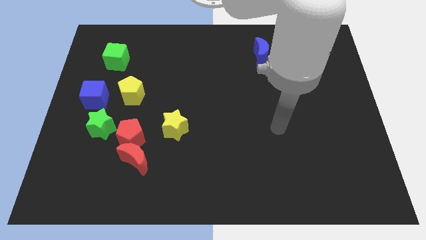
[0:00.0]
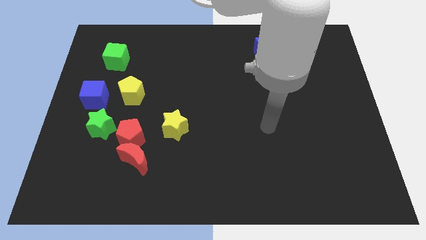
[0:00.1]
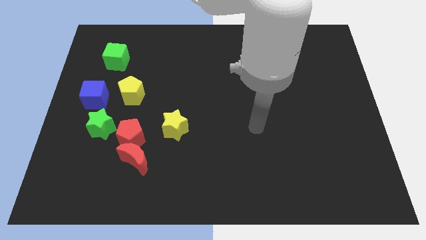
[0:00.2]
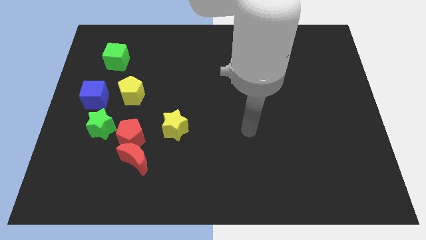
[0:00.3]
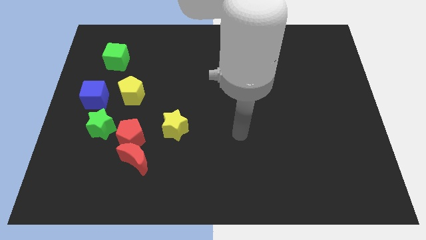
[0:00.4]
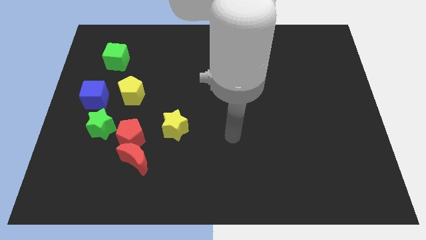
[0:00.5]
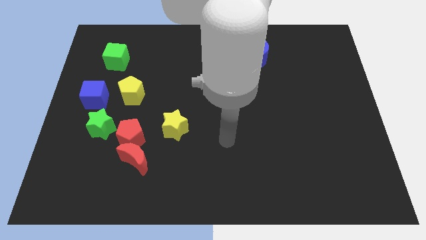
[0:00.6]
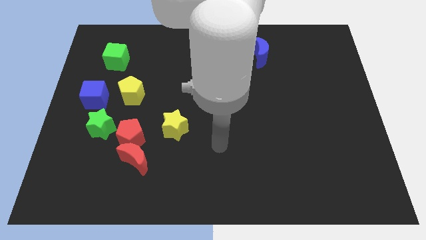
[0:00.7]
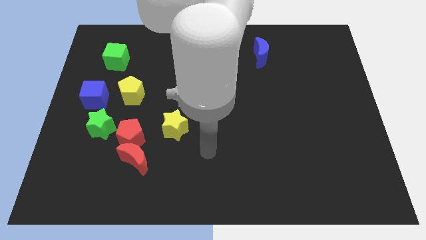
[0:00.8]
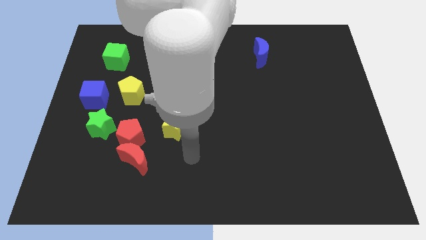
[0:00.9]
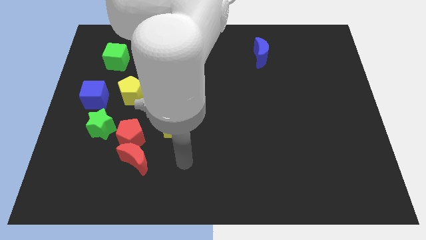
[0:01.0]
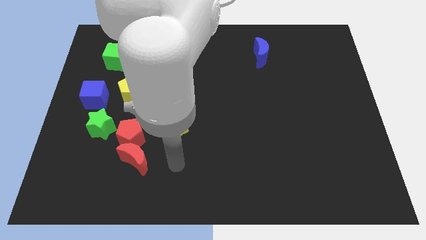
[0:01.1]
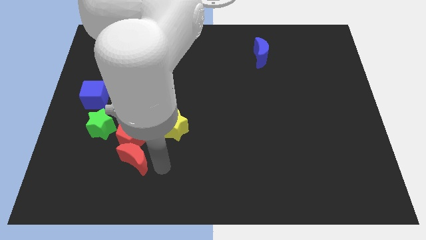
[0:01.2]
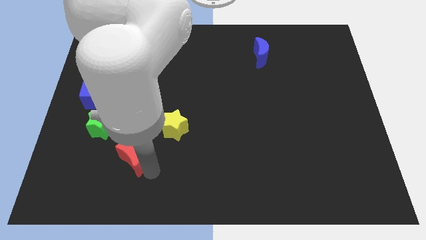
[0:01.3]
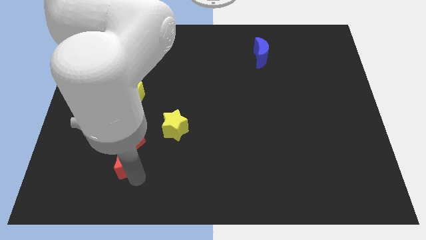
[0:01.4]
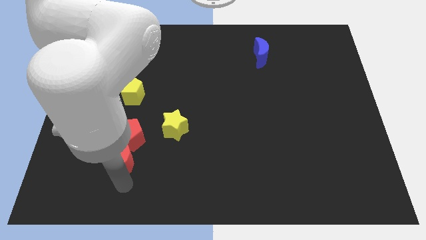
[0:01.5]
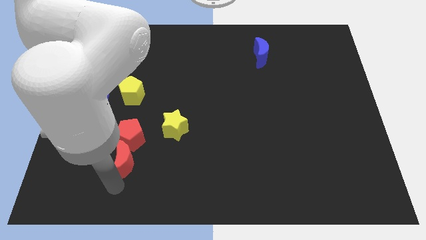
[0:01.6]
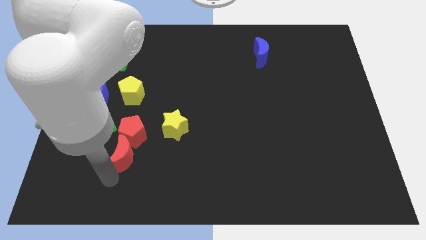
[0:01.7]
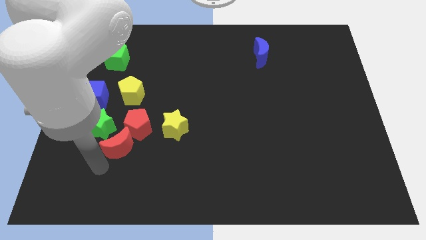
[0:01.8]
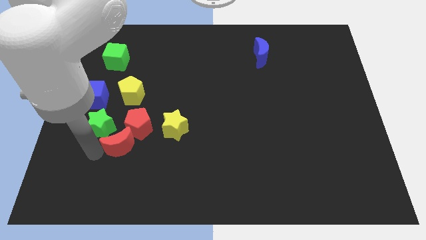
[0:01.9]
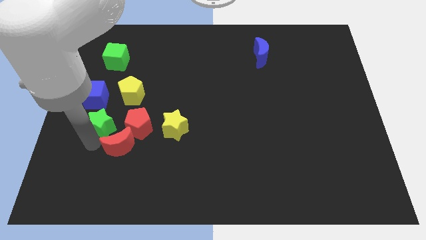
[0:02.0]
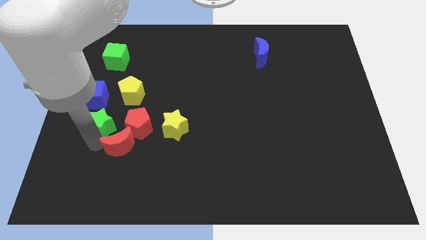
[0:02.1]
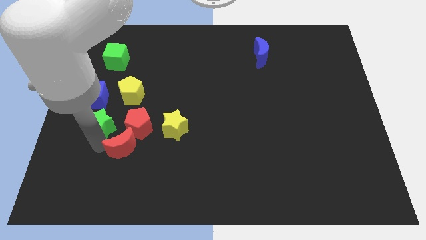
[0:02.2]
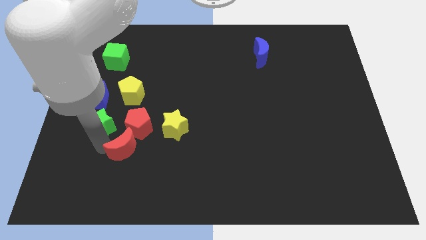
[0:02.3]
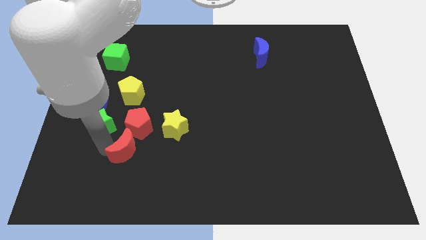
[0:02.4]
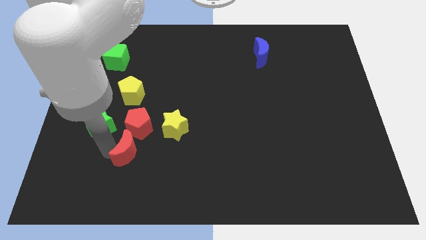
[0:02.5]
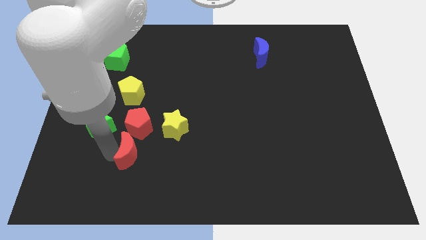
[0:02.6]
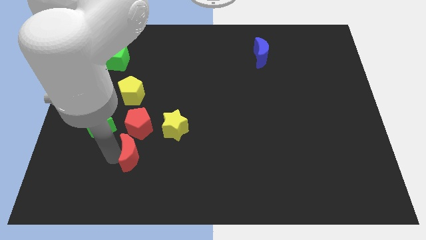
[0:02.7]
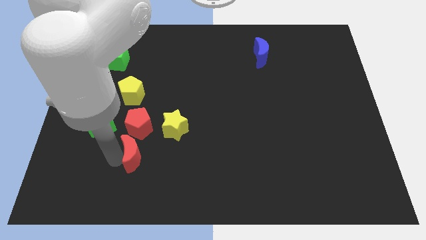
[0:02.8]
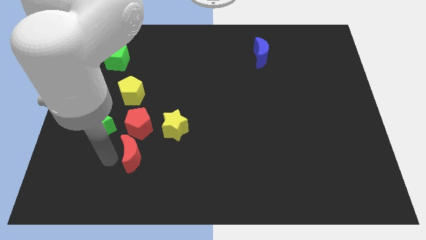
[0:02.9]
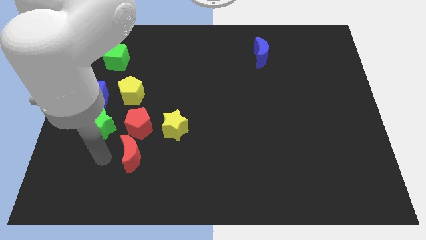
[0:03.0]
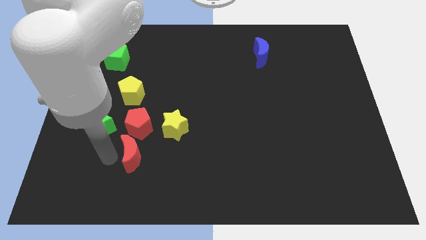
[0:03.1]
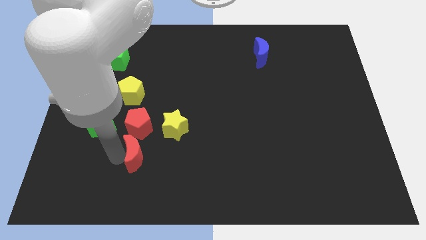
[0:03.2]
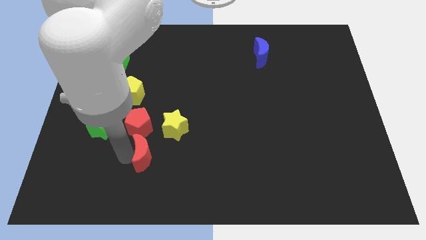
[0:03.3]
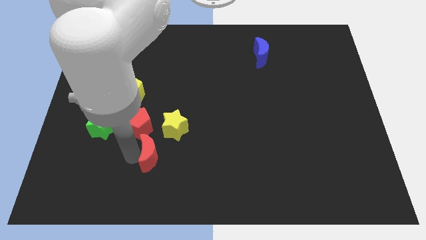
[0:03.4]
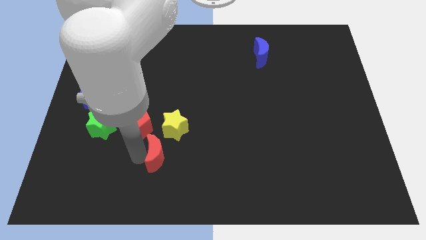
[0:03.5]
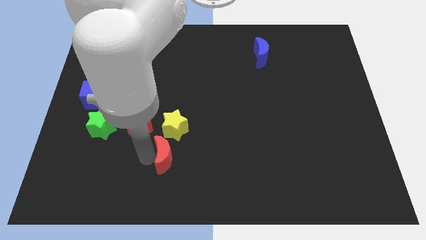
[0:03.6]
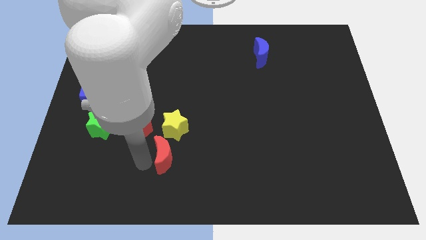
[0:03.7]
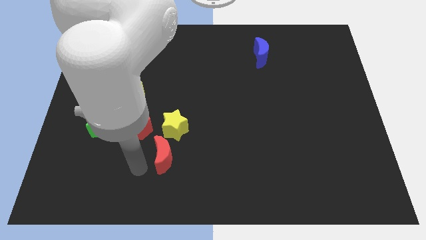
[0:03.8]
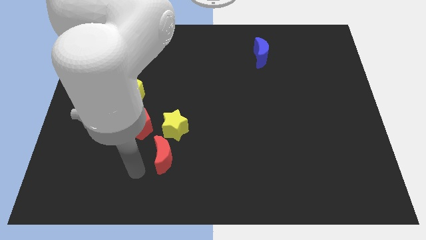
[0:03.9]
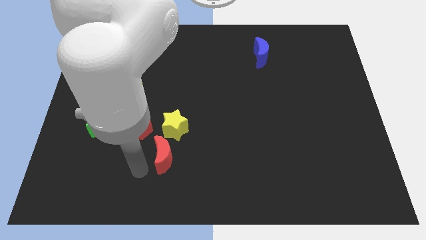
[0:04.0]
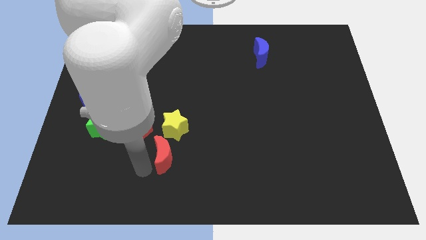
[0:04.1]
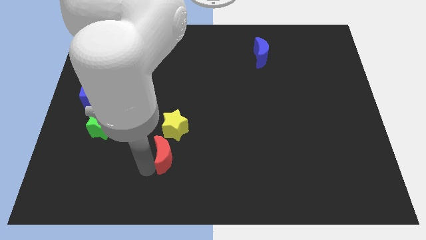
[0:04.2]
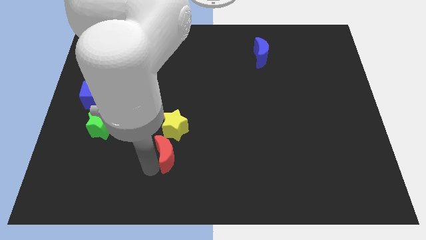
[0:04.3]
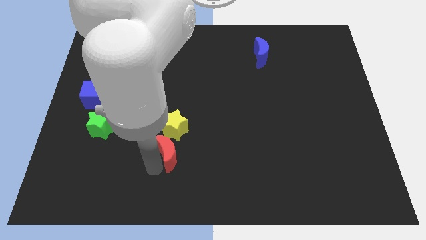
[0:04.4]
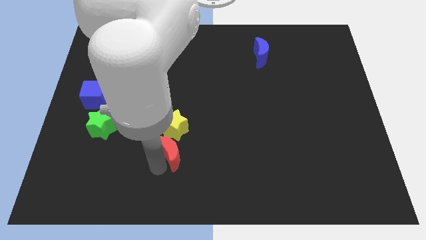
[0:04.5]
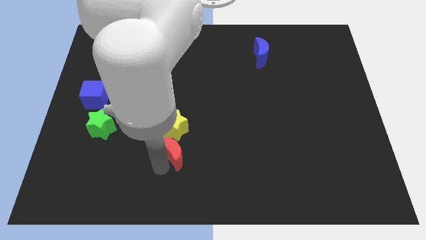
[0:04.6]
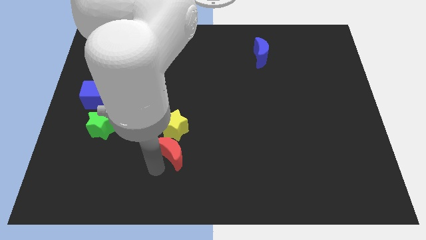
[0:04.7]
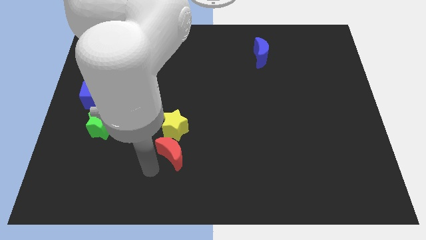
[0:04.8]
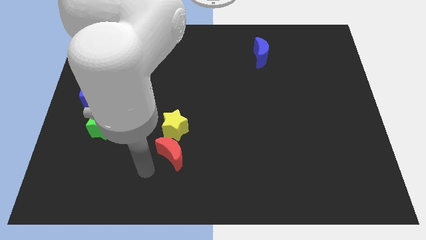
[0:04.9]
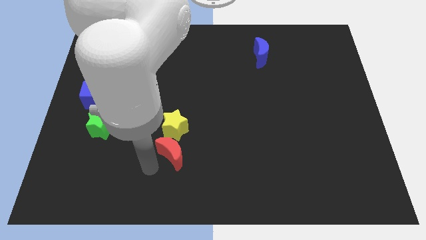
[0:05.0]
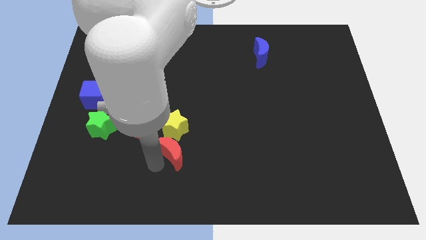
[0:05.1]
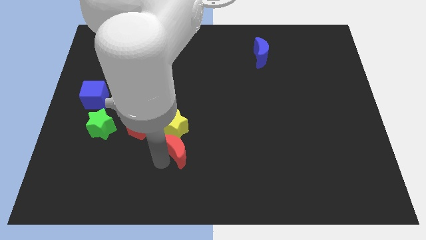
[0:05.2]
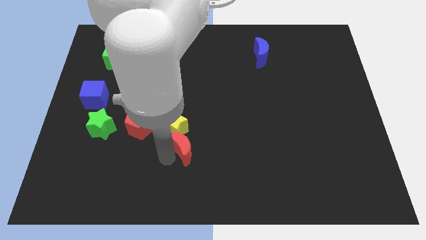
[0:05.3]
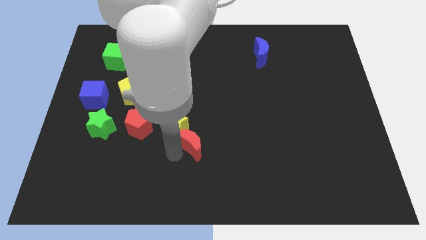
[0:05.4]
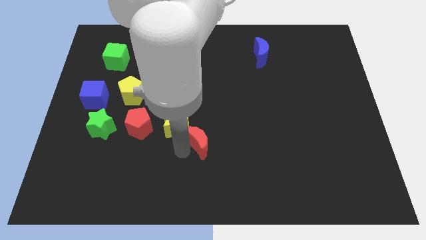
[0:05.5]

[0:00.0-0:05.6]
push the red moon to the center
